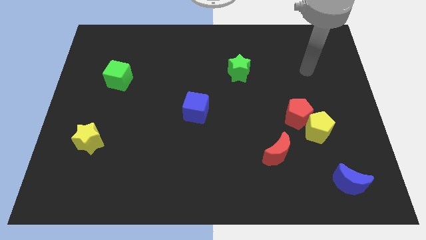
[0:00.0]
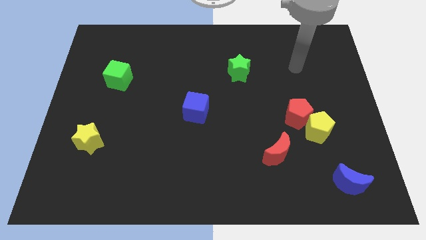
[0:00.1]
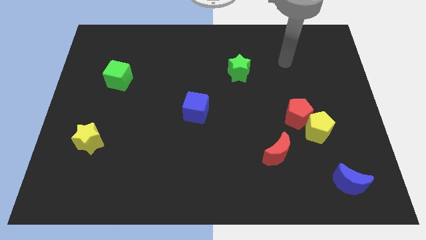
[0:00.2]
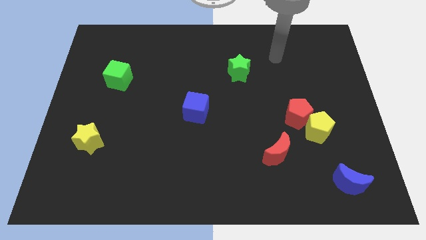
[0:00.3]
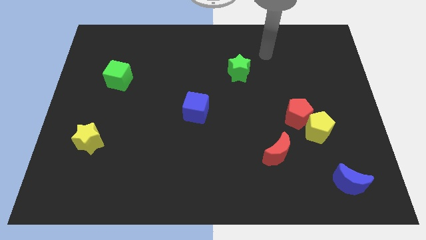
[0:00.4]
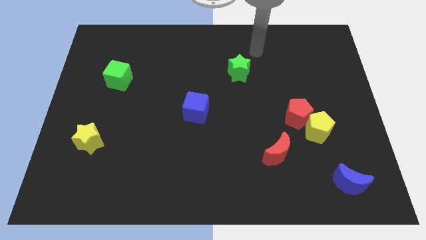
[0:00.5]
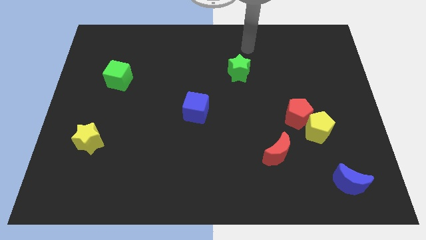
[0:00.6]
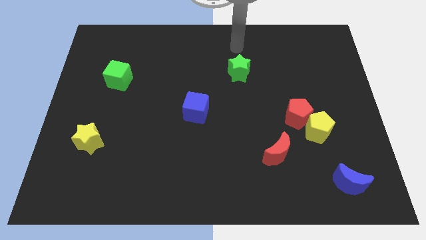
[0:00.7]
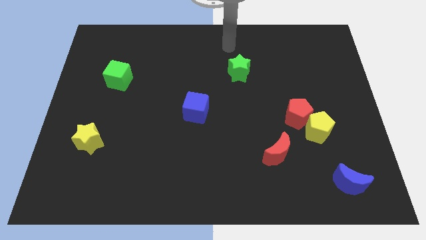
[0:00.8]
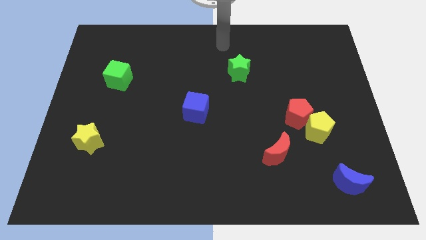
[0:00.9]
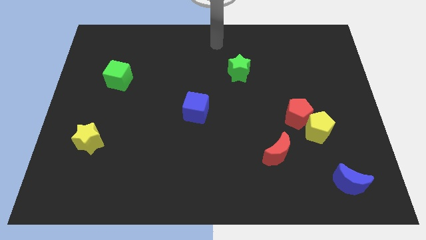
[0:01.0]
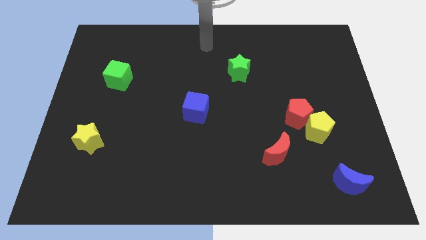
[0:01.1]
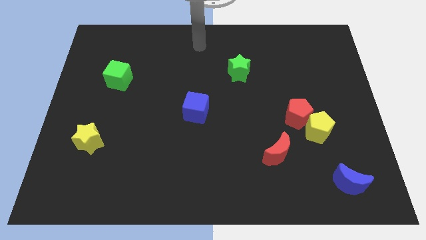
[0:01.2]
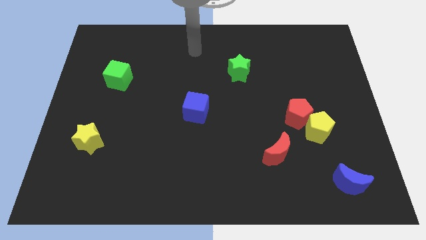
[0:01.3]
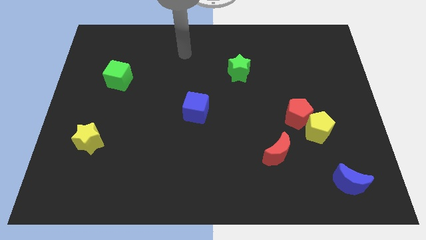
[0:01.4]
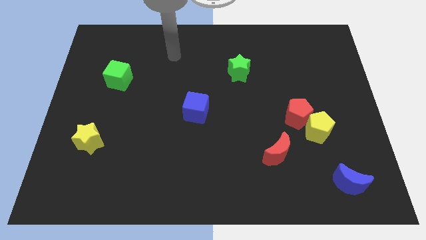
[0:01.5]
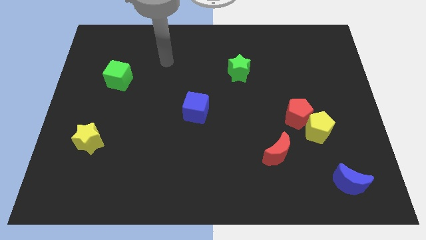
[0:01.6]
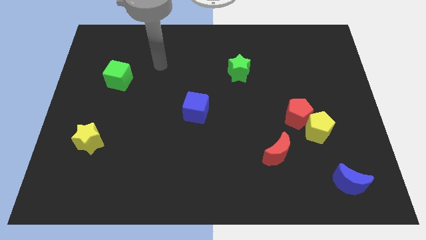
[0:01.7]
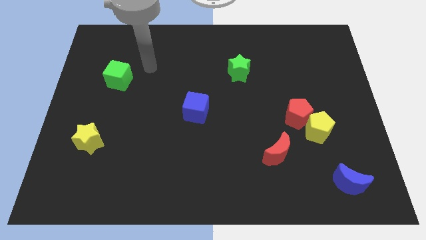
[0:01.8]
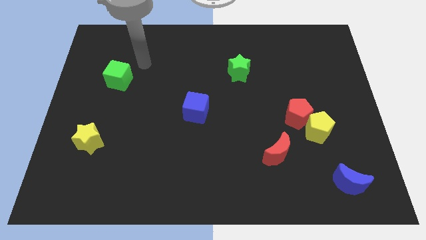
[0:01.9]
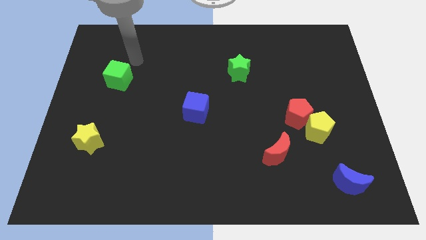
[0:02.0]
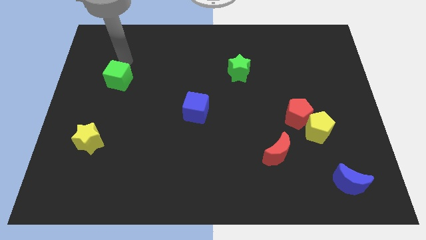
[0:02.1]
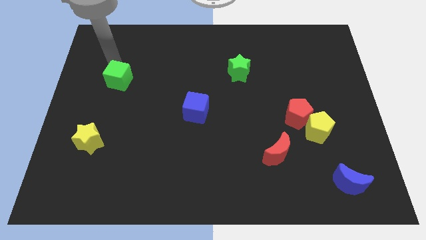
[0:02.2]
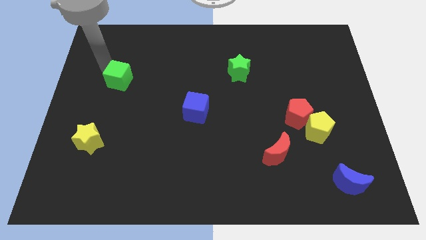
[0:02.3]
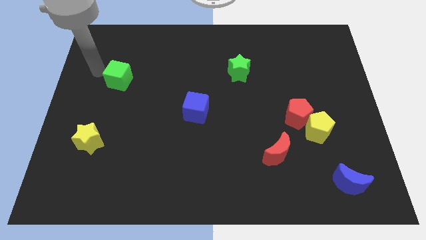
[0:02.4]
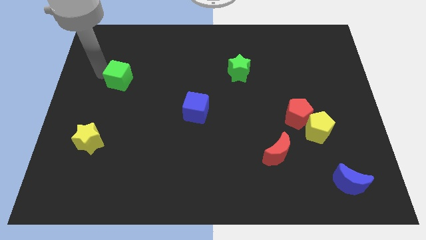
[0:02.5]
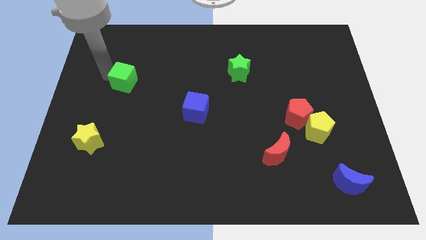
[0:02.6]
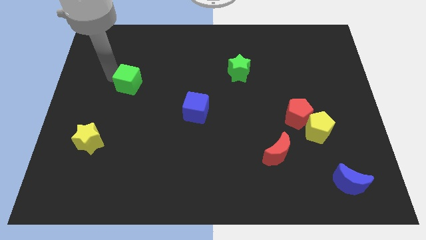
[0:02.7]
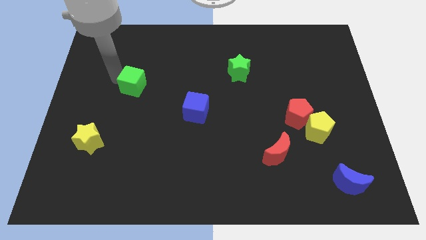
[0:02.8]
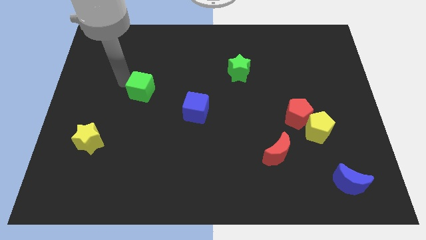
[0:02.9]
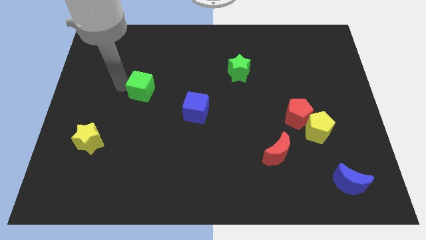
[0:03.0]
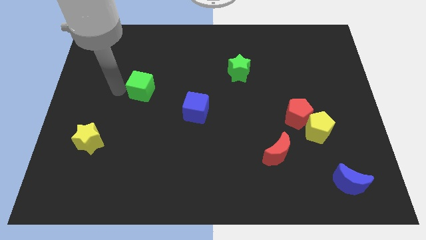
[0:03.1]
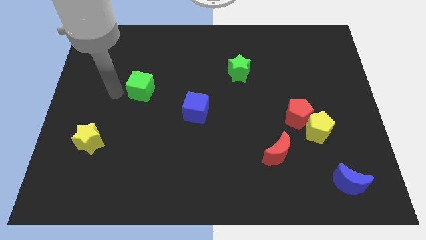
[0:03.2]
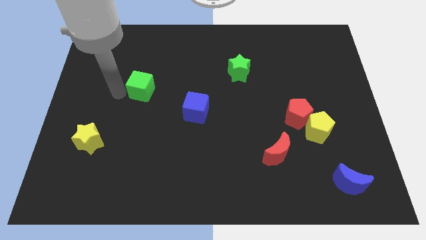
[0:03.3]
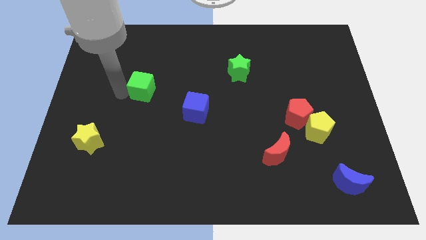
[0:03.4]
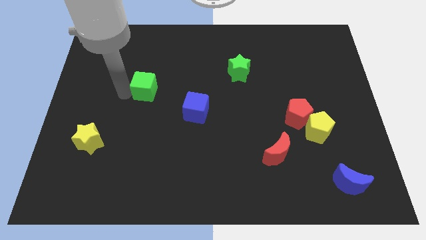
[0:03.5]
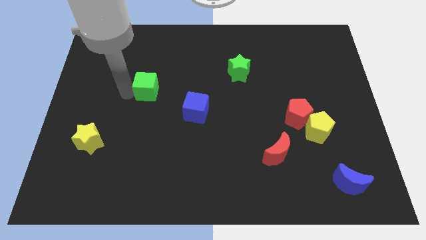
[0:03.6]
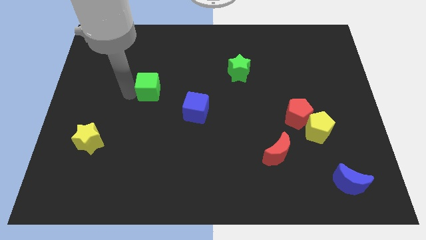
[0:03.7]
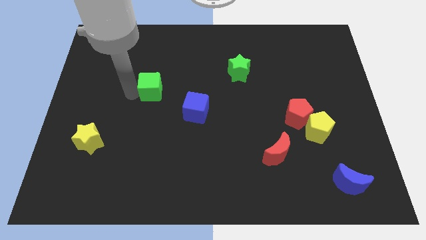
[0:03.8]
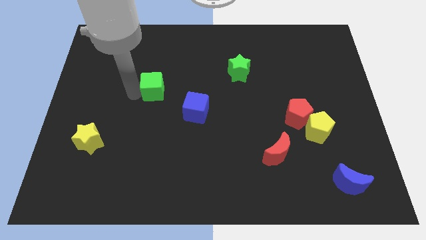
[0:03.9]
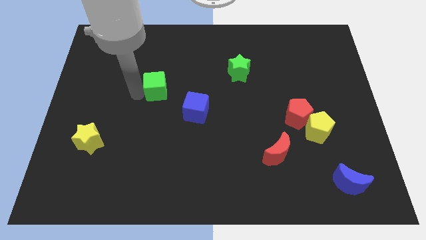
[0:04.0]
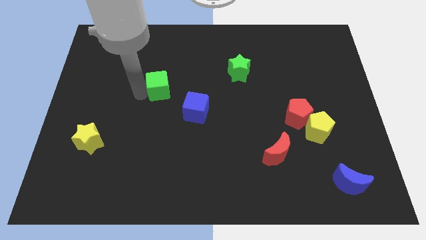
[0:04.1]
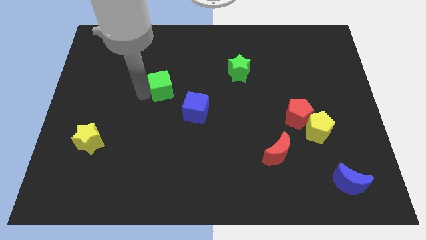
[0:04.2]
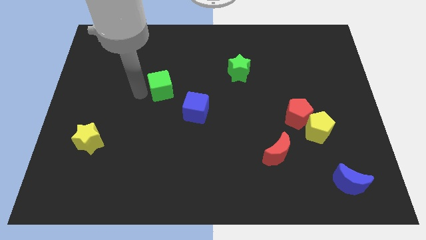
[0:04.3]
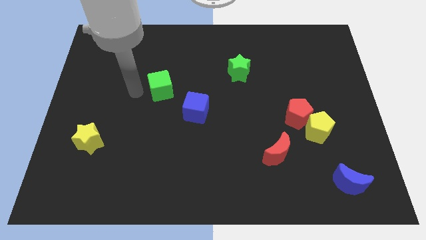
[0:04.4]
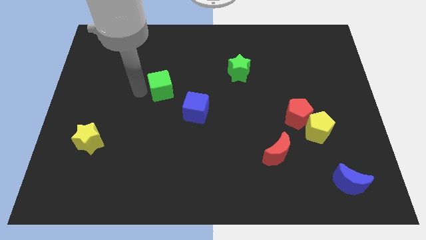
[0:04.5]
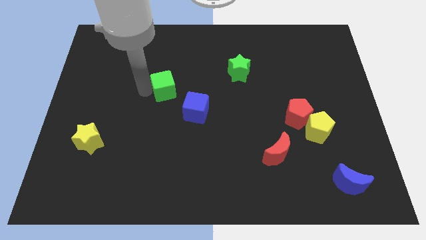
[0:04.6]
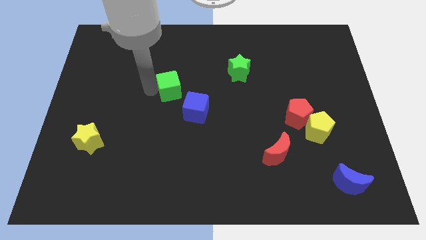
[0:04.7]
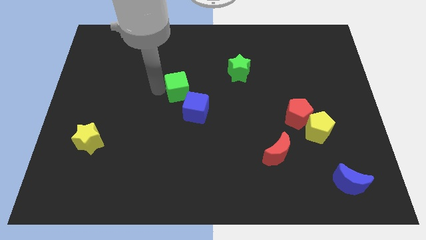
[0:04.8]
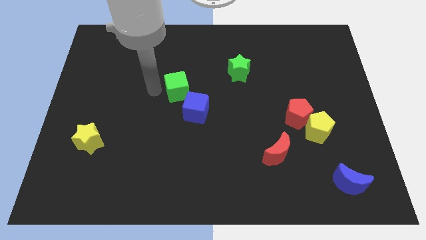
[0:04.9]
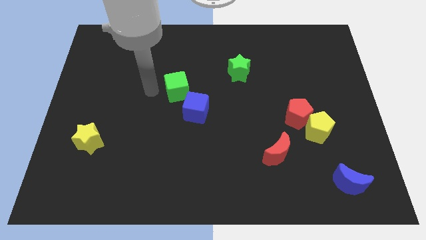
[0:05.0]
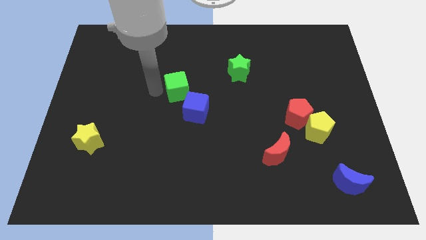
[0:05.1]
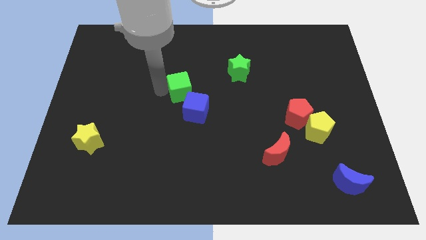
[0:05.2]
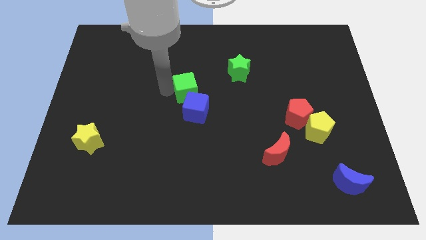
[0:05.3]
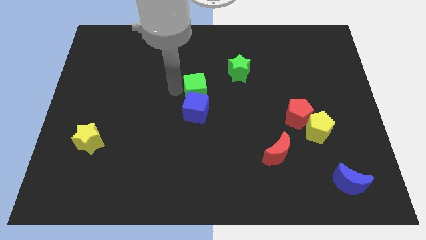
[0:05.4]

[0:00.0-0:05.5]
move the green cube to the top right of the blue cube
